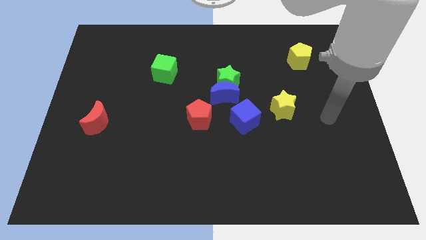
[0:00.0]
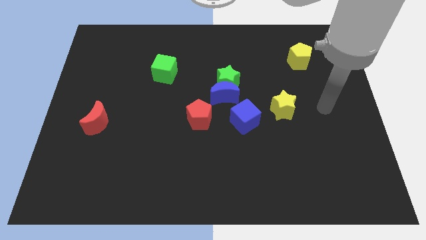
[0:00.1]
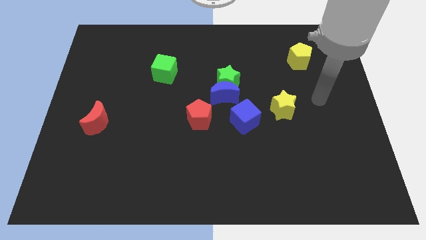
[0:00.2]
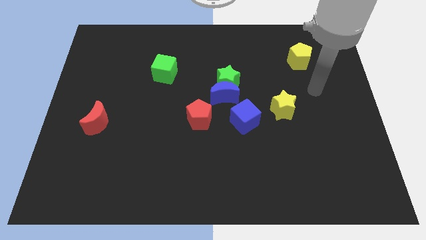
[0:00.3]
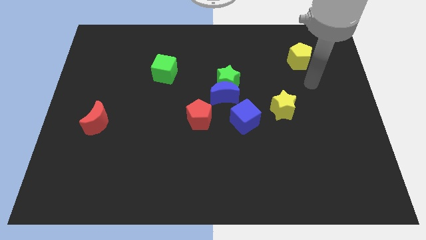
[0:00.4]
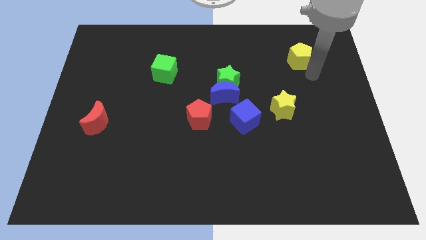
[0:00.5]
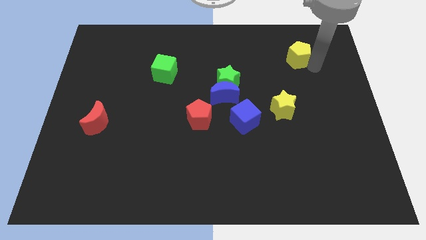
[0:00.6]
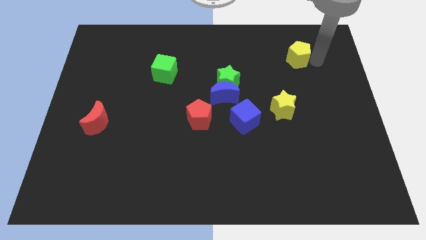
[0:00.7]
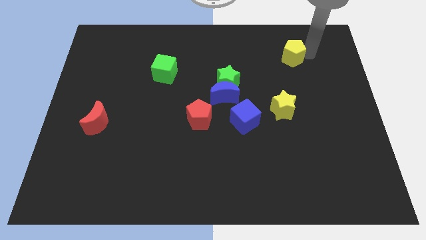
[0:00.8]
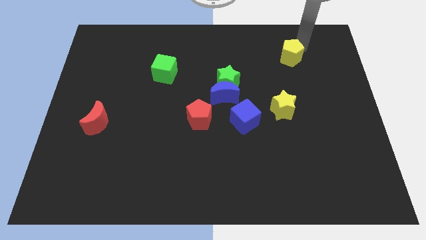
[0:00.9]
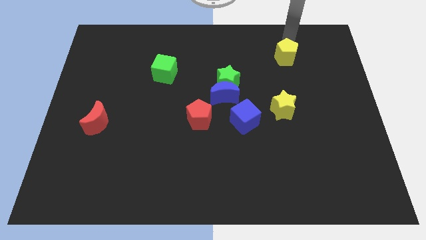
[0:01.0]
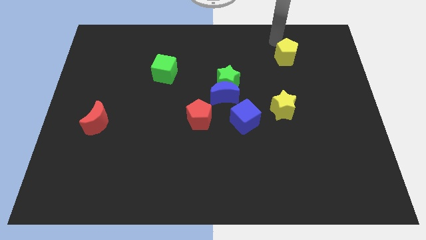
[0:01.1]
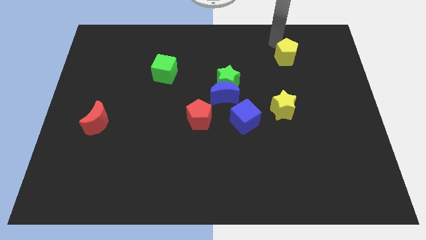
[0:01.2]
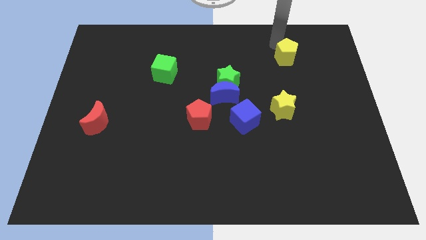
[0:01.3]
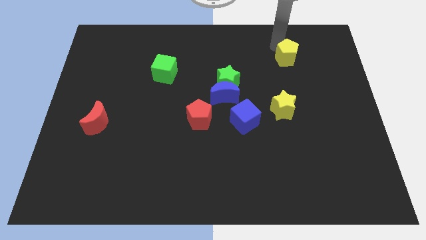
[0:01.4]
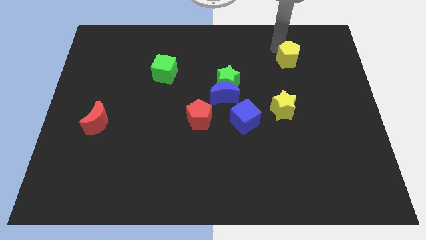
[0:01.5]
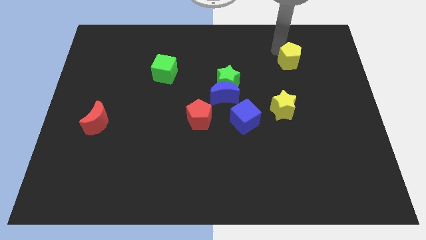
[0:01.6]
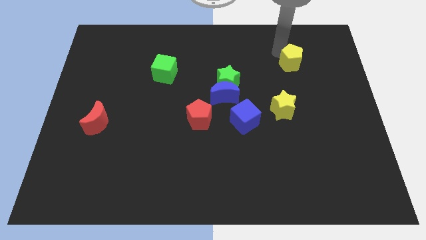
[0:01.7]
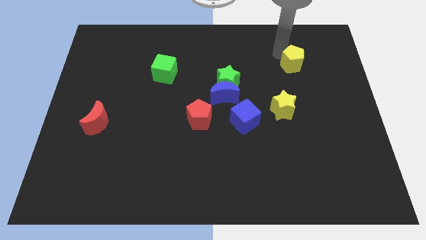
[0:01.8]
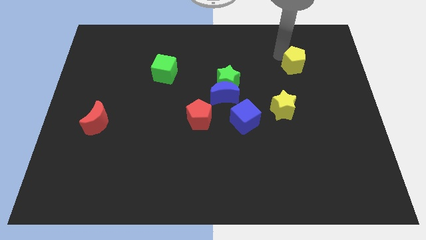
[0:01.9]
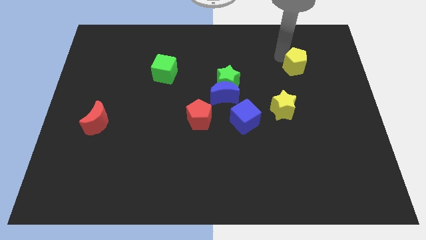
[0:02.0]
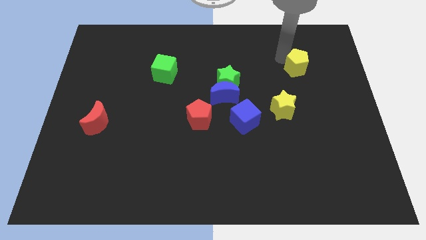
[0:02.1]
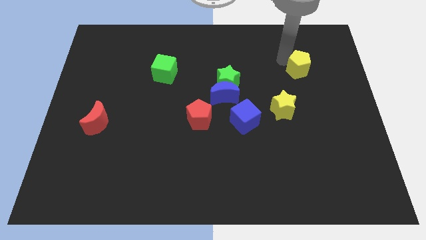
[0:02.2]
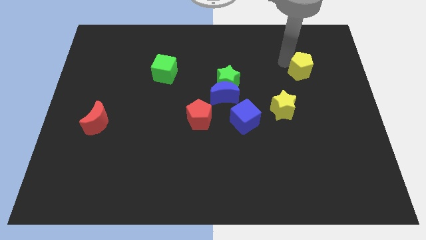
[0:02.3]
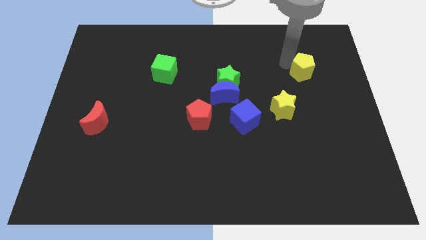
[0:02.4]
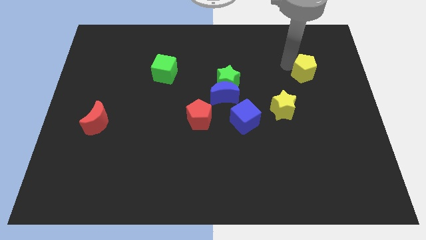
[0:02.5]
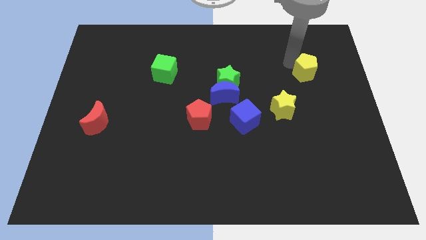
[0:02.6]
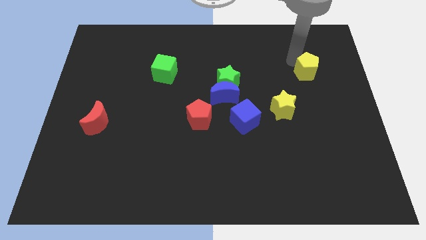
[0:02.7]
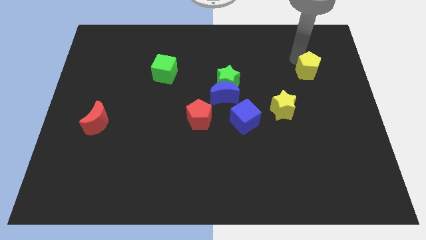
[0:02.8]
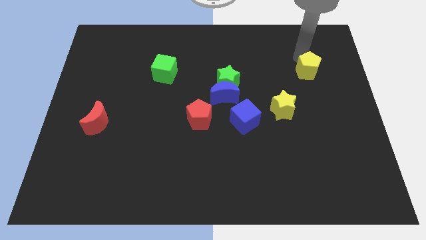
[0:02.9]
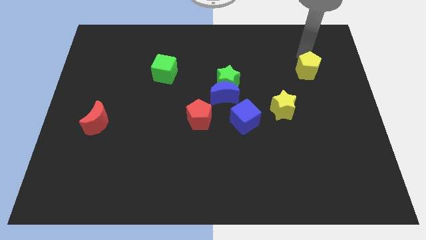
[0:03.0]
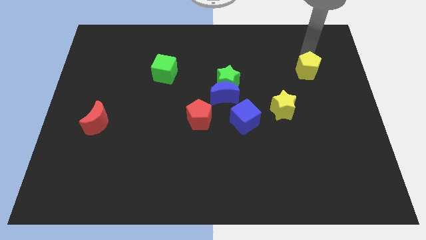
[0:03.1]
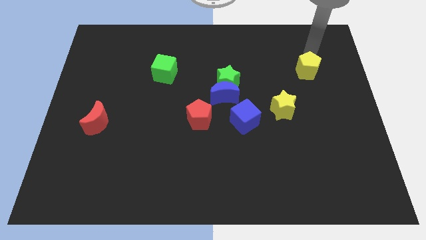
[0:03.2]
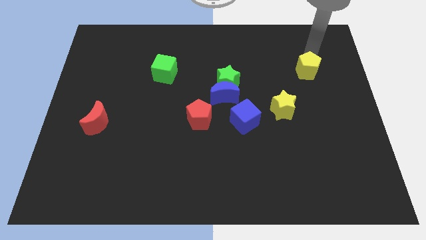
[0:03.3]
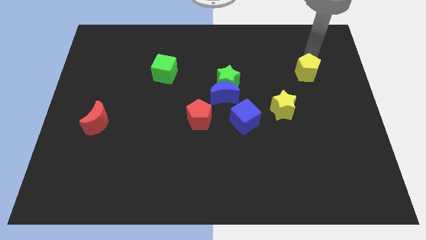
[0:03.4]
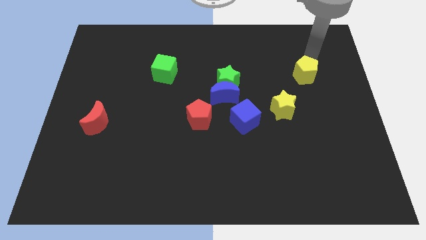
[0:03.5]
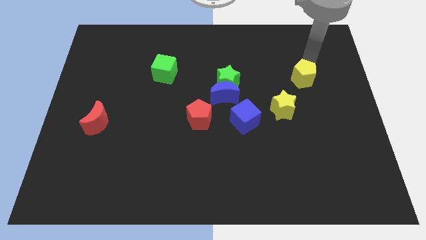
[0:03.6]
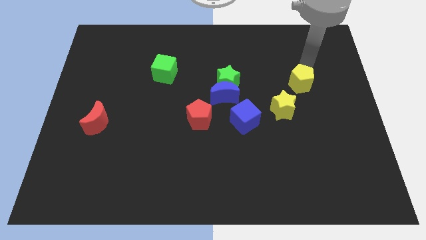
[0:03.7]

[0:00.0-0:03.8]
slightly move the yellow pentagon down

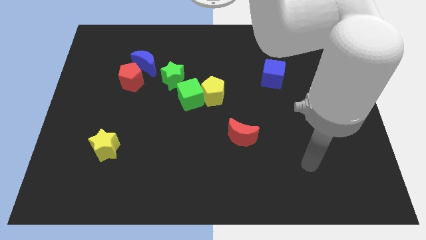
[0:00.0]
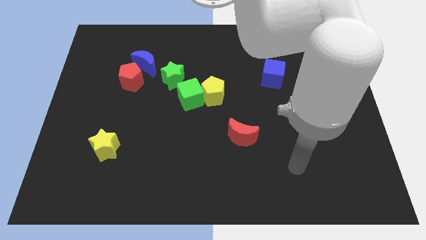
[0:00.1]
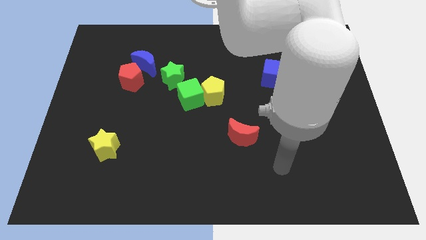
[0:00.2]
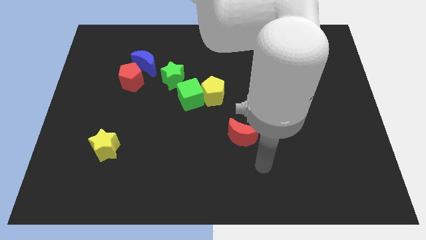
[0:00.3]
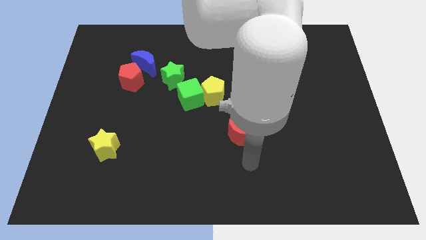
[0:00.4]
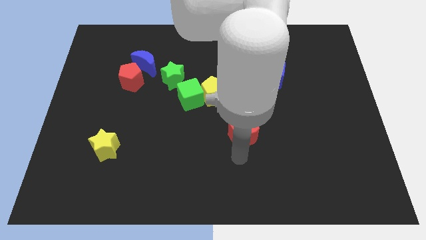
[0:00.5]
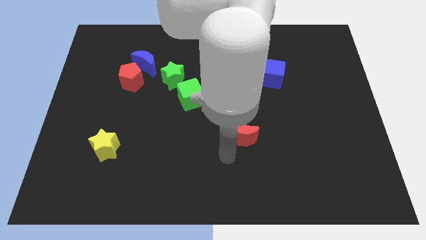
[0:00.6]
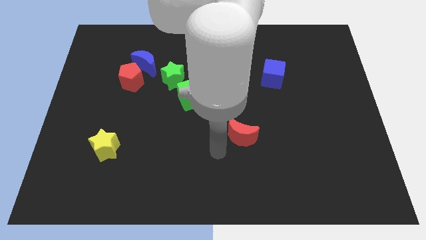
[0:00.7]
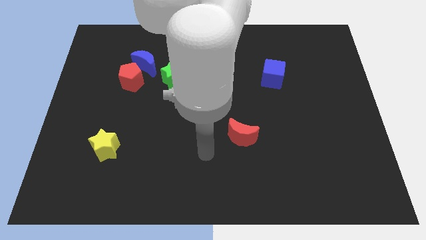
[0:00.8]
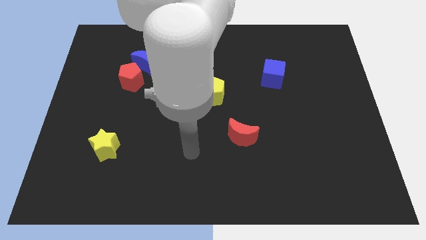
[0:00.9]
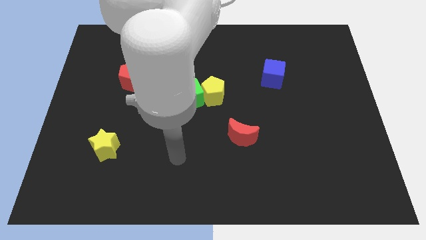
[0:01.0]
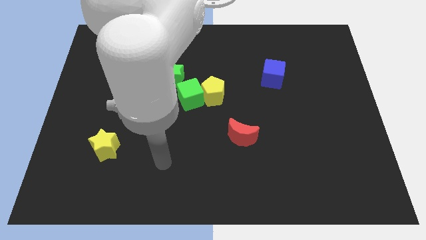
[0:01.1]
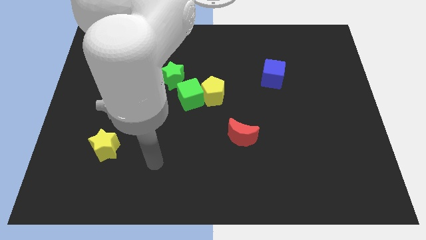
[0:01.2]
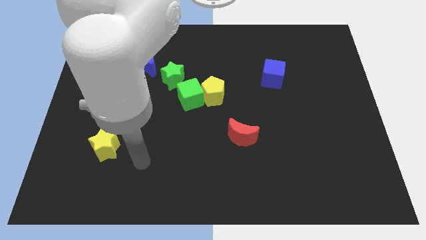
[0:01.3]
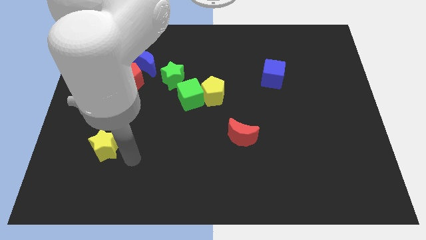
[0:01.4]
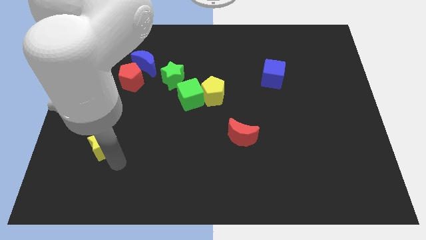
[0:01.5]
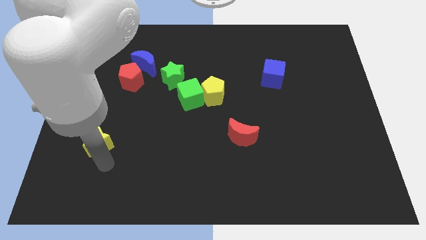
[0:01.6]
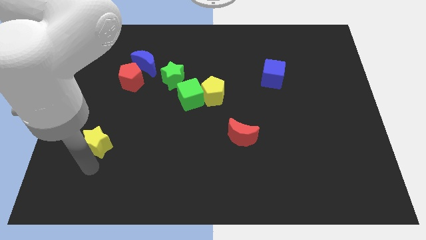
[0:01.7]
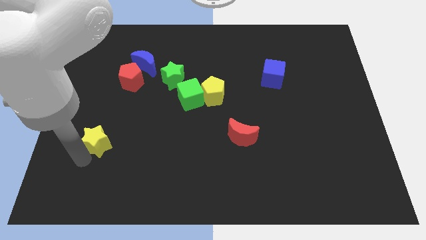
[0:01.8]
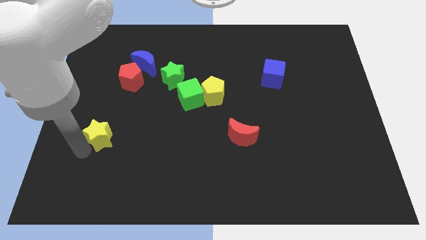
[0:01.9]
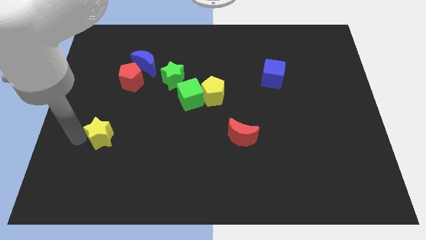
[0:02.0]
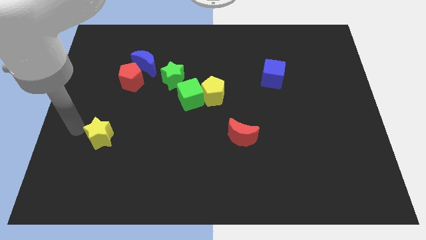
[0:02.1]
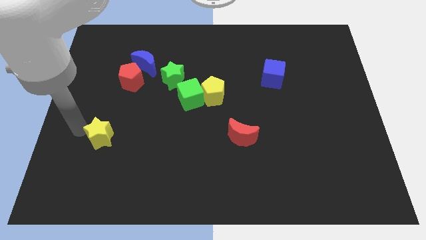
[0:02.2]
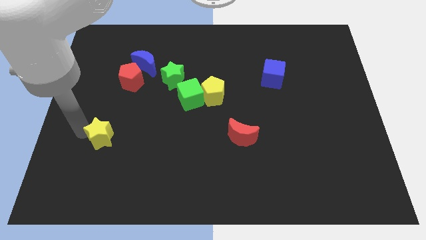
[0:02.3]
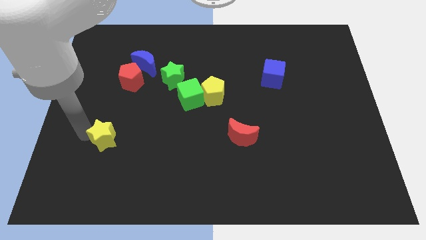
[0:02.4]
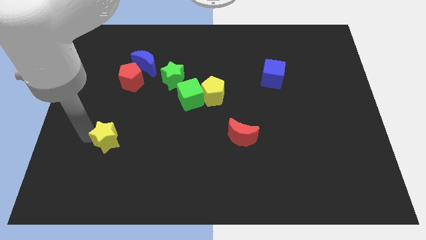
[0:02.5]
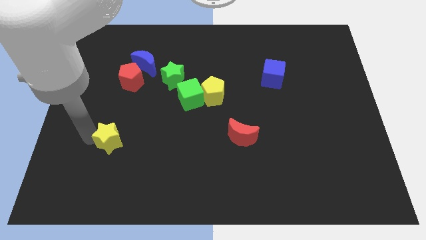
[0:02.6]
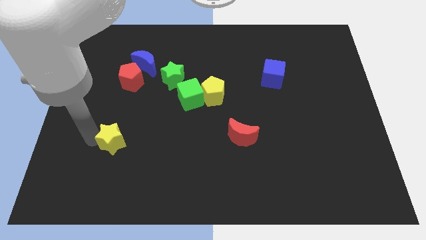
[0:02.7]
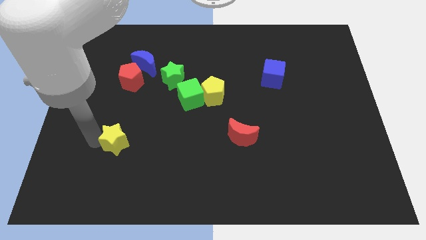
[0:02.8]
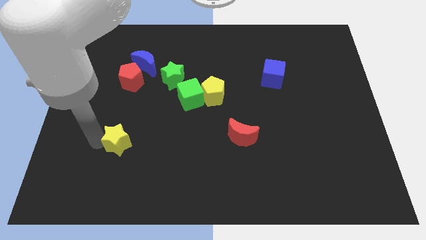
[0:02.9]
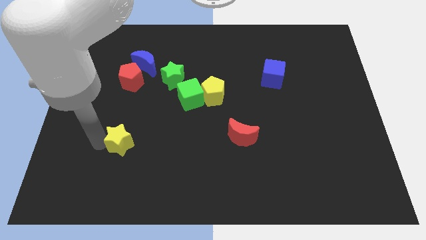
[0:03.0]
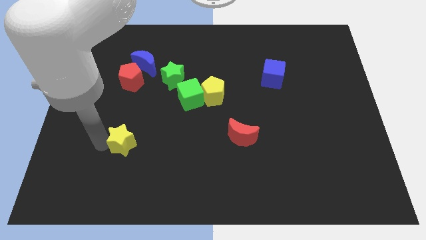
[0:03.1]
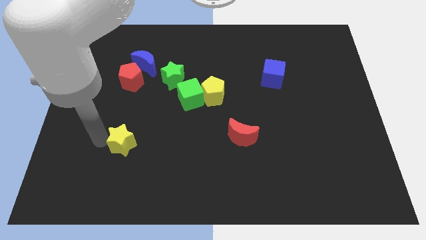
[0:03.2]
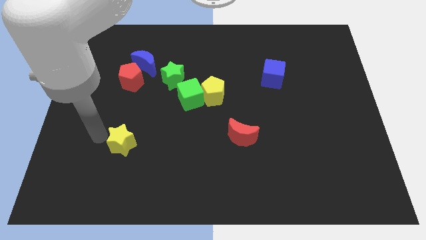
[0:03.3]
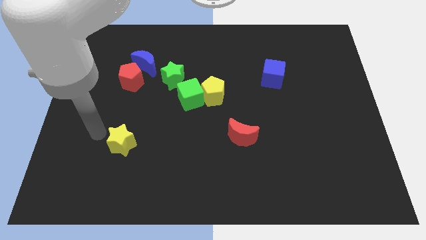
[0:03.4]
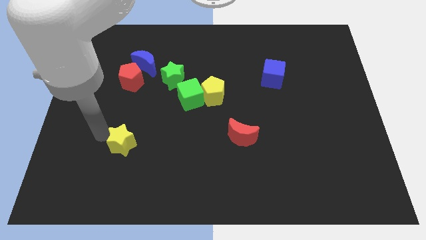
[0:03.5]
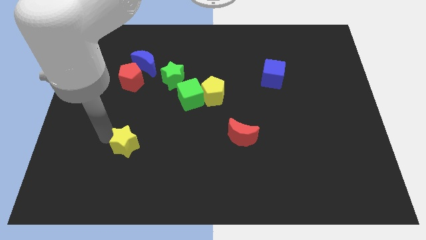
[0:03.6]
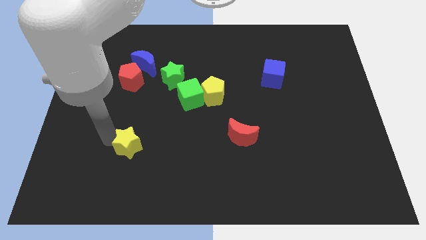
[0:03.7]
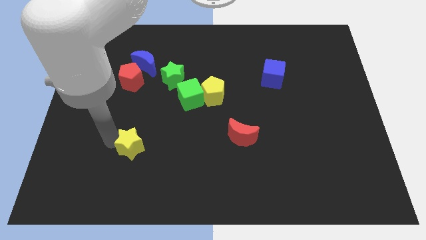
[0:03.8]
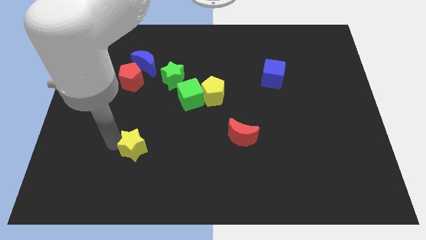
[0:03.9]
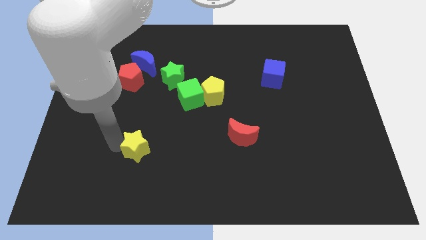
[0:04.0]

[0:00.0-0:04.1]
slightly push the yellow star to the right

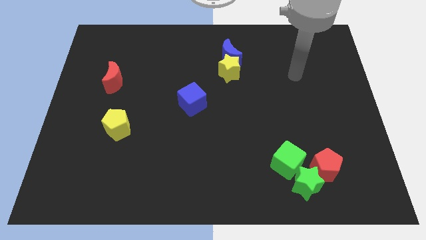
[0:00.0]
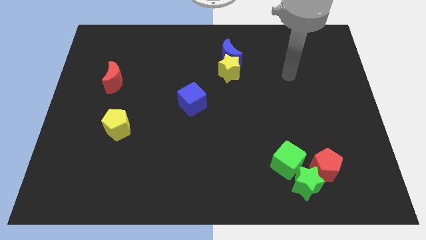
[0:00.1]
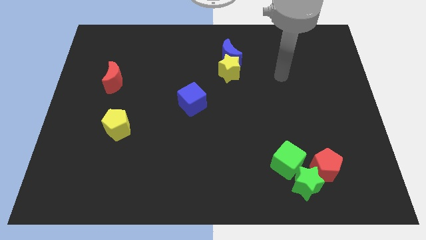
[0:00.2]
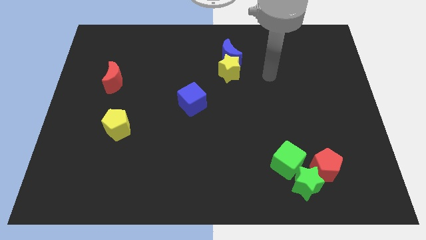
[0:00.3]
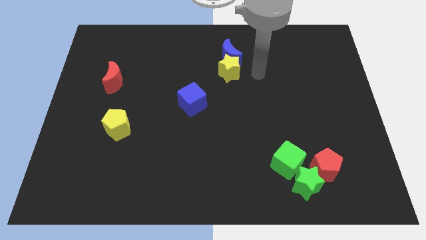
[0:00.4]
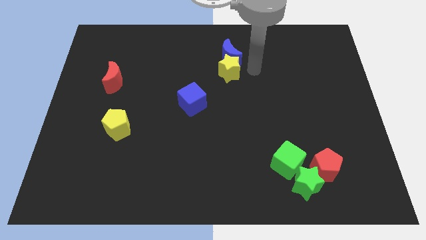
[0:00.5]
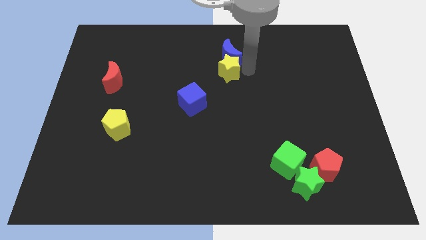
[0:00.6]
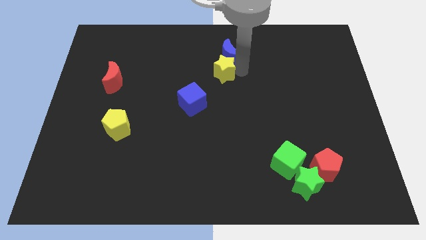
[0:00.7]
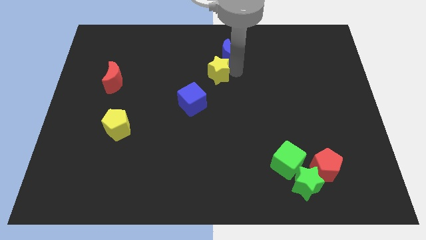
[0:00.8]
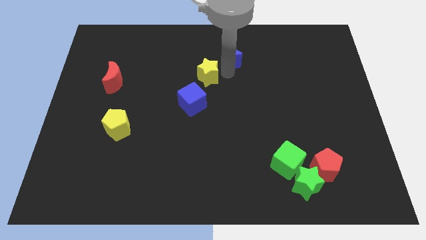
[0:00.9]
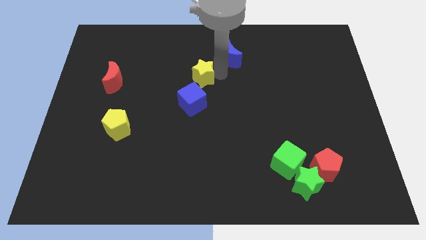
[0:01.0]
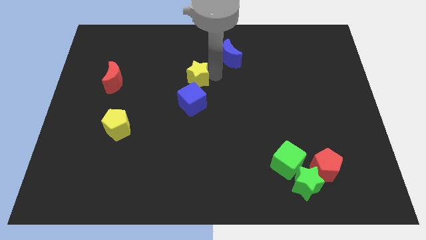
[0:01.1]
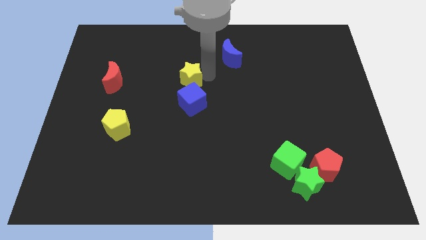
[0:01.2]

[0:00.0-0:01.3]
slide the yellow star a bit downwards and to the left
